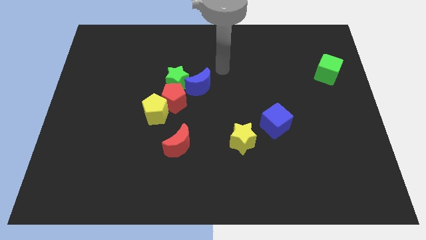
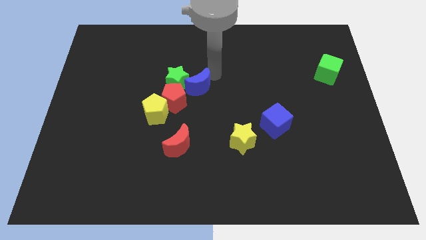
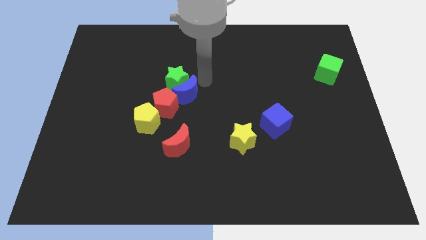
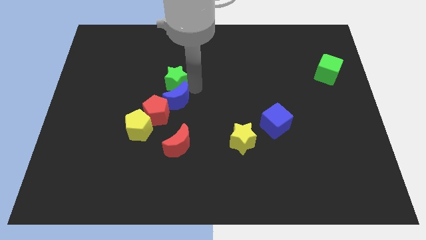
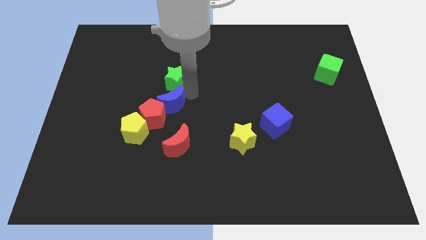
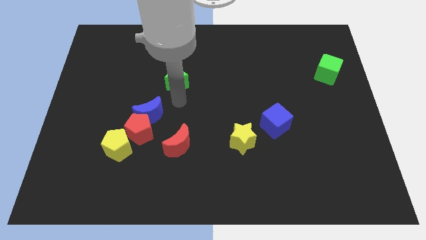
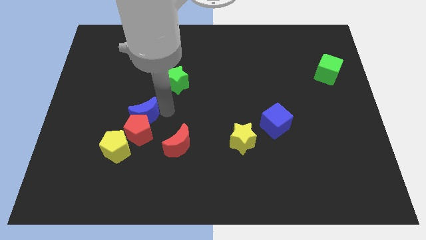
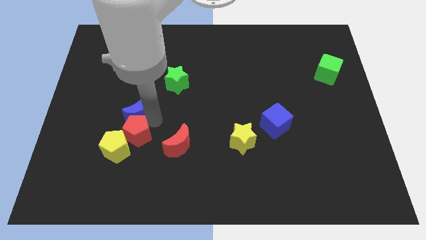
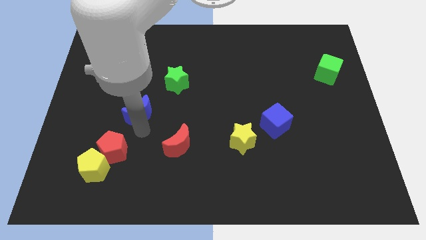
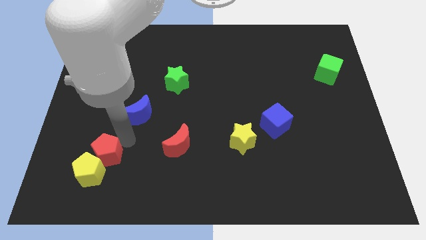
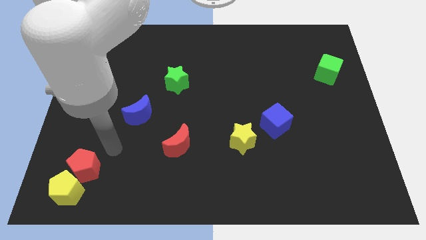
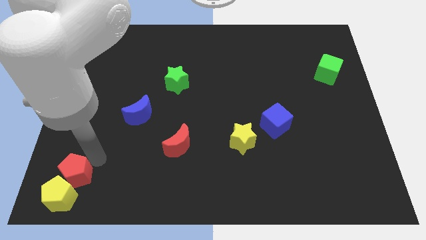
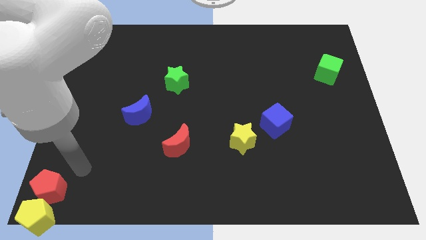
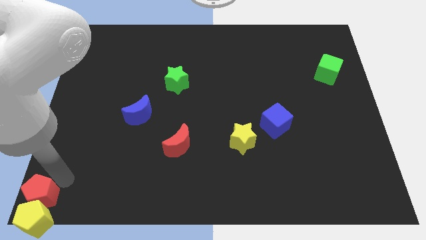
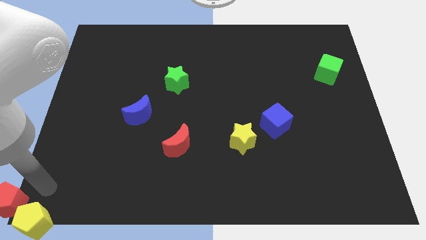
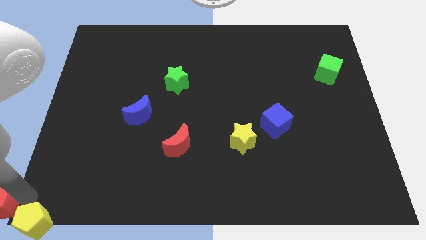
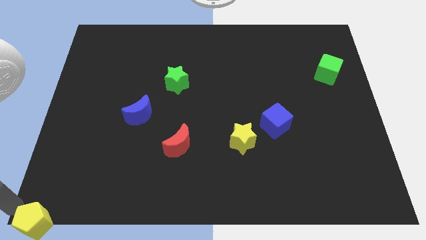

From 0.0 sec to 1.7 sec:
pull the yellow pentagon apart from the red pentagon

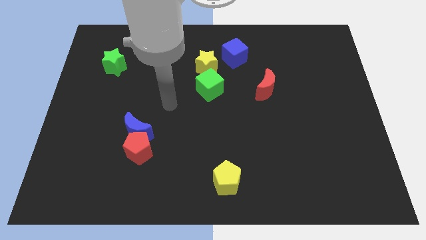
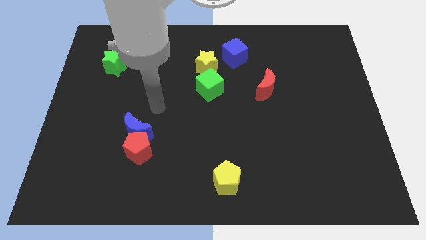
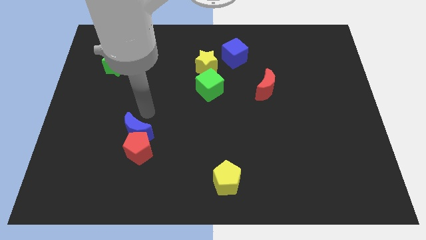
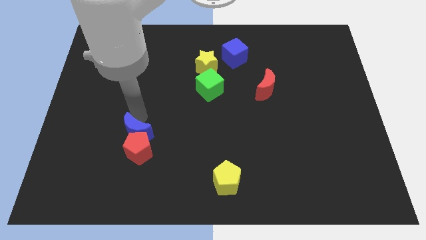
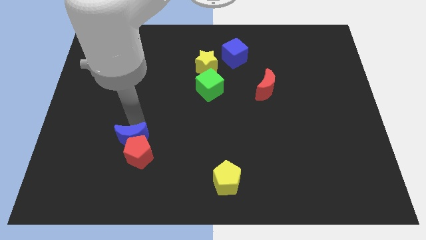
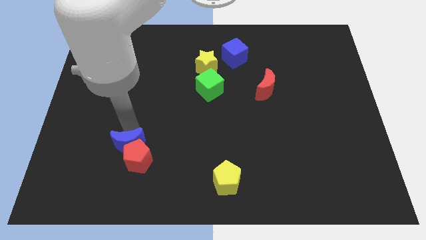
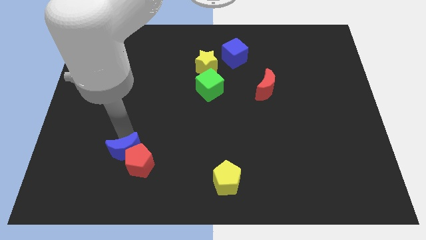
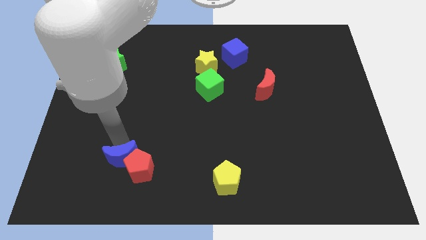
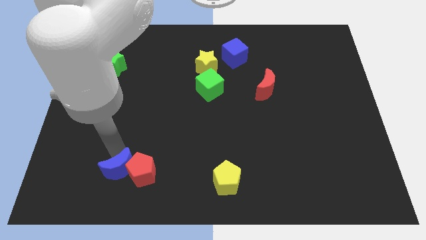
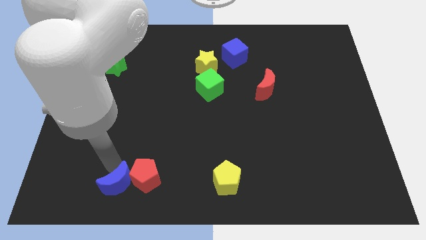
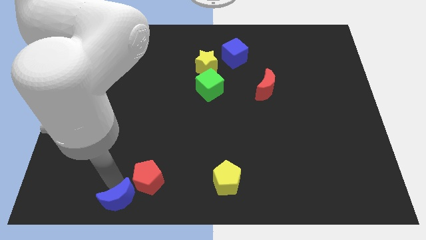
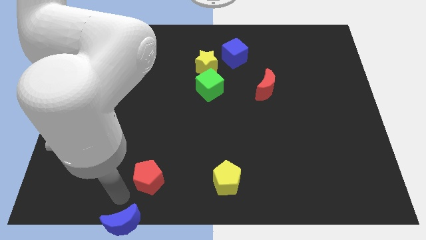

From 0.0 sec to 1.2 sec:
separate the red pentagon from the blue moon

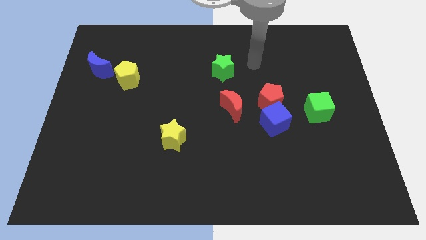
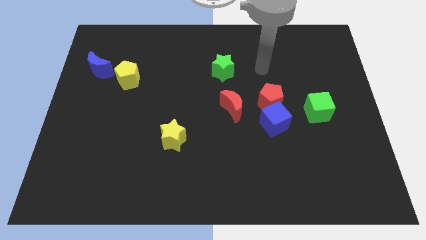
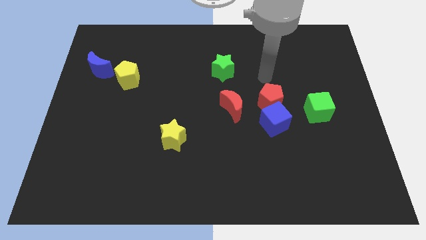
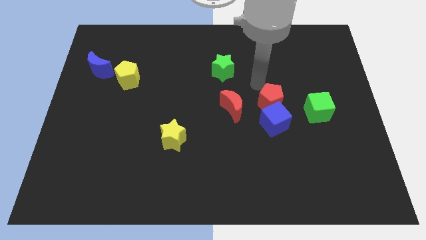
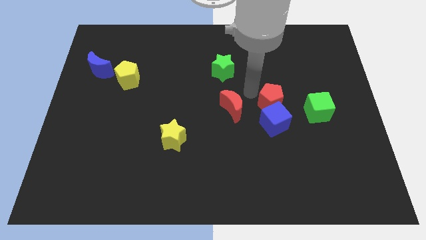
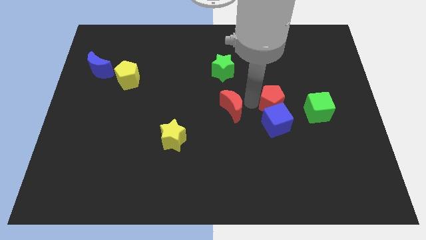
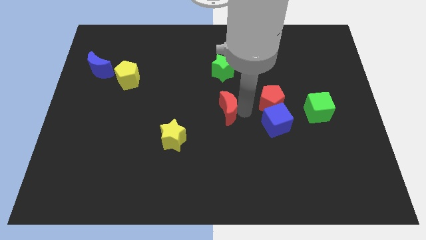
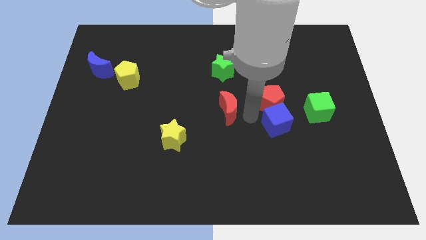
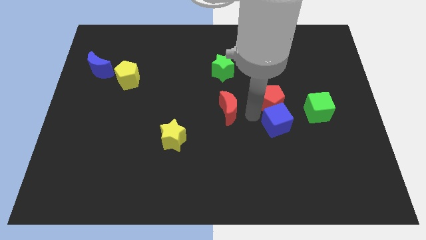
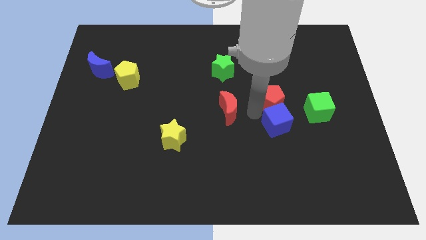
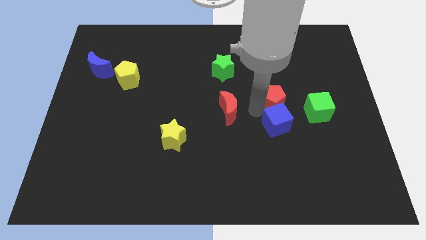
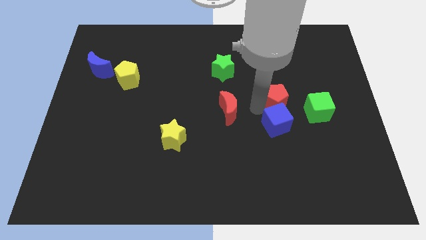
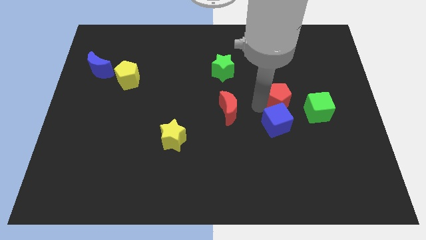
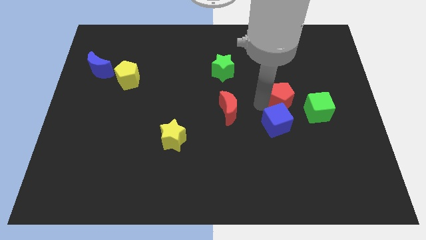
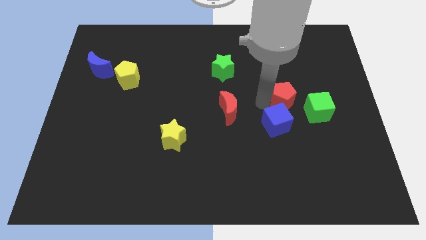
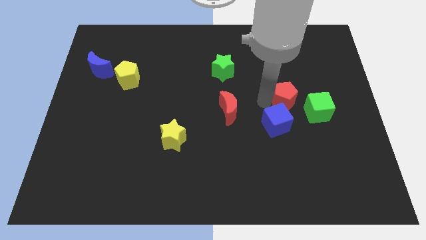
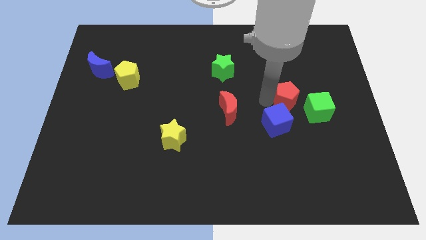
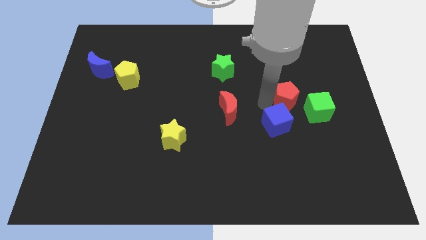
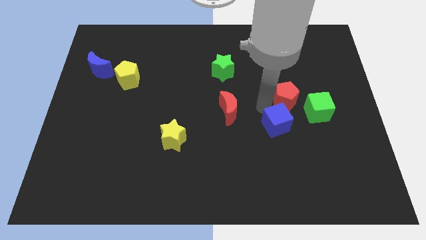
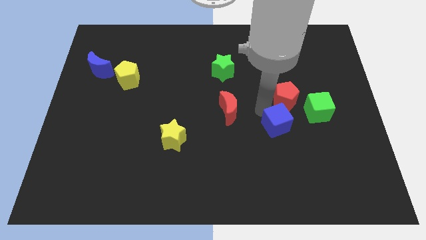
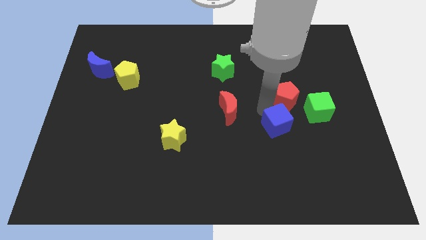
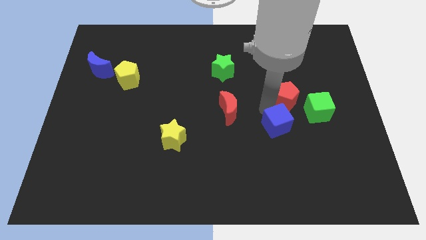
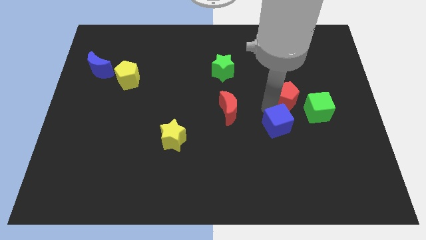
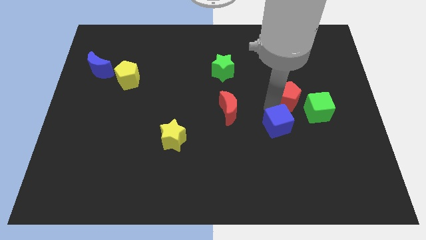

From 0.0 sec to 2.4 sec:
pull the red pentagon apart from the blue cube and red moon

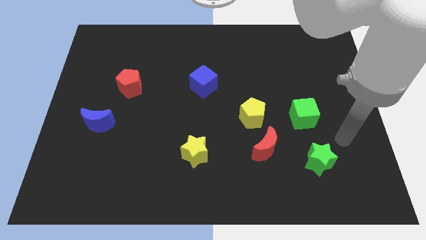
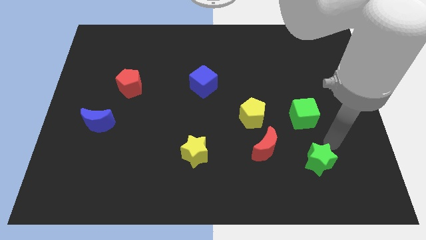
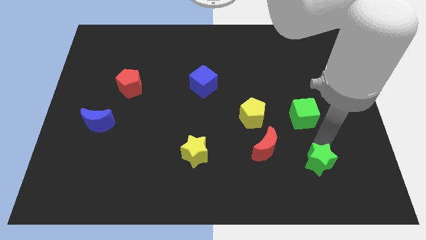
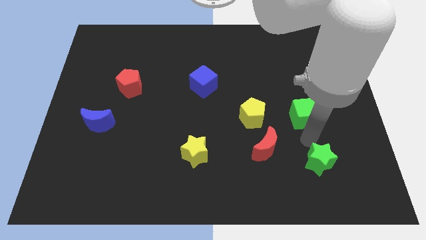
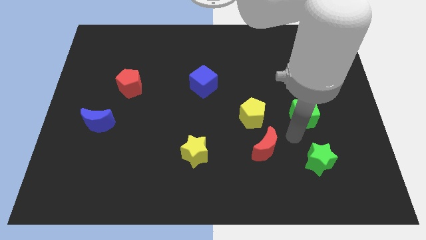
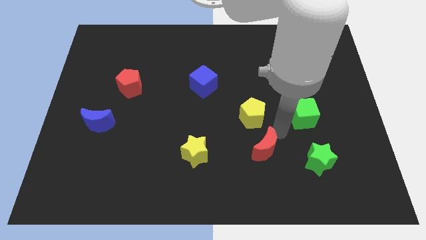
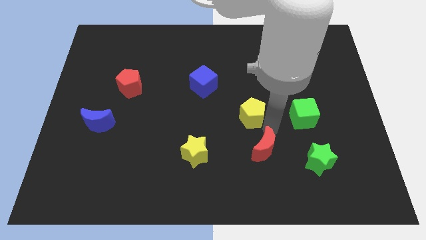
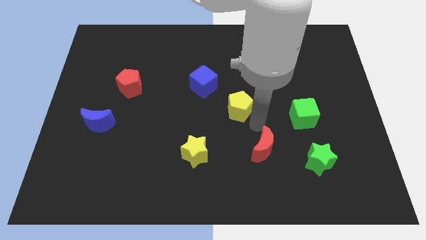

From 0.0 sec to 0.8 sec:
pull the red moon apart from the yellow pentagon

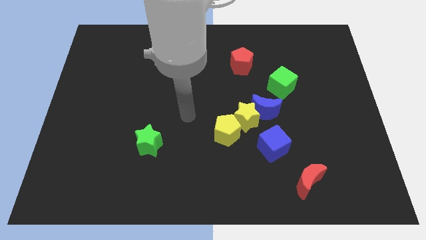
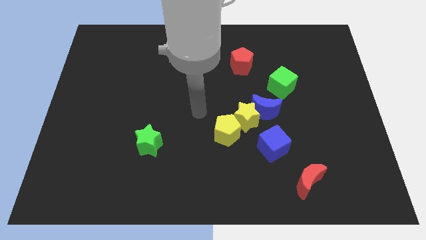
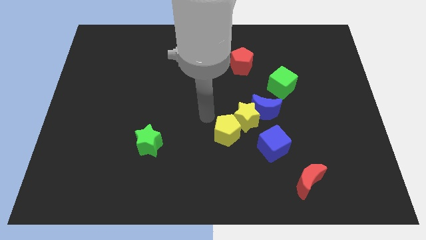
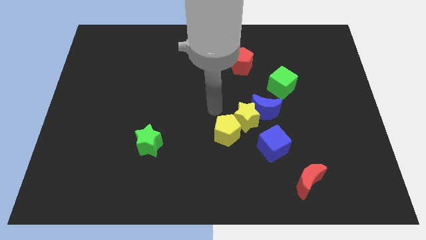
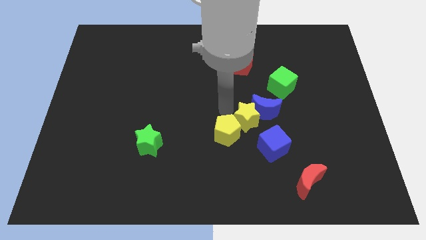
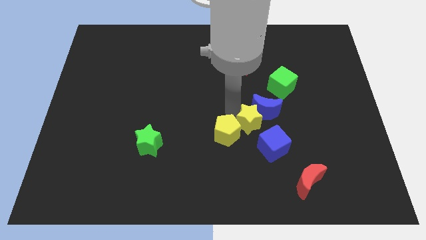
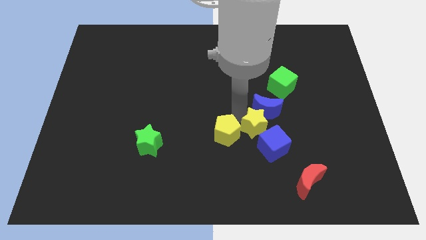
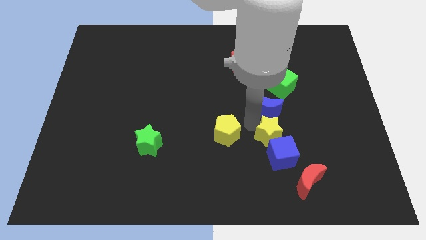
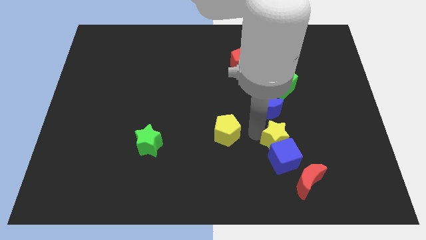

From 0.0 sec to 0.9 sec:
move the yellow pentagon away from the yellow star

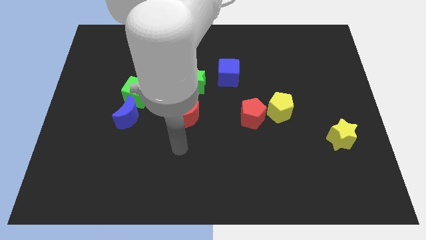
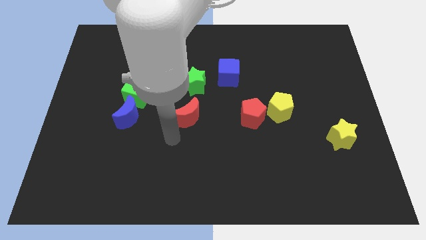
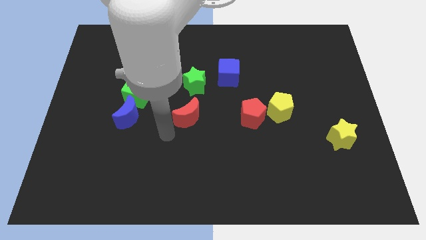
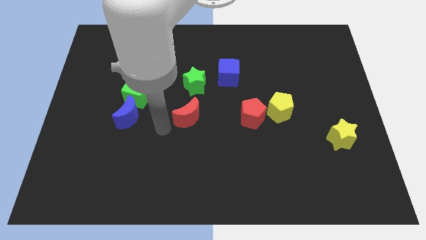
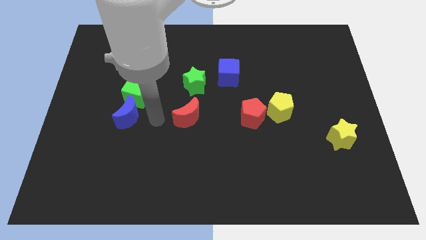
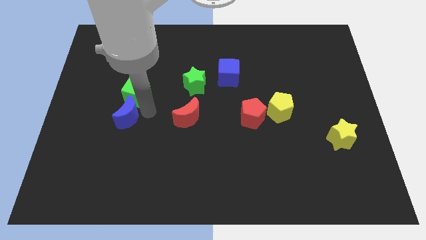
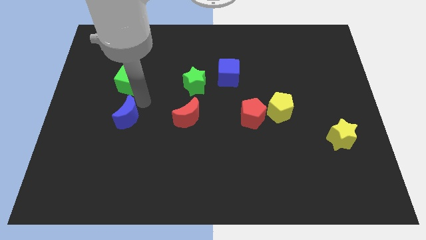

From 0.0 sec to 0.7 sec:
pull the blue moon apart from the green cube

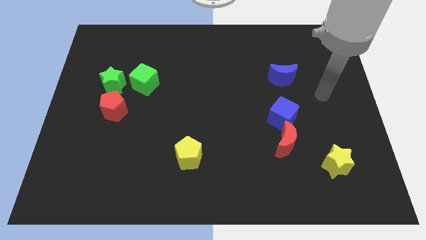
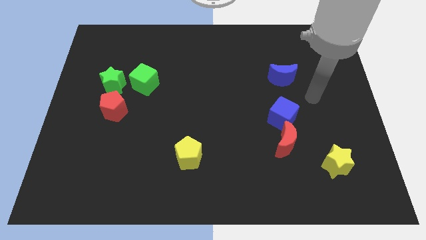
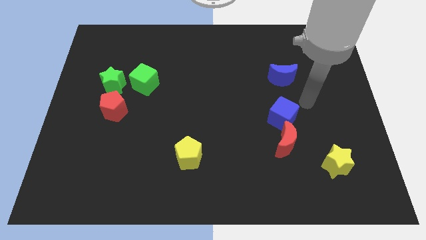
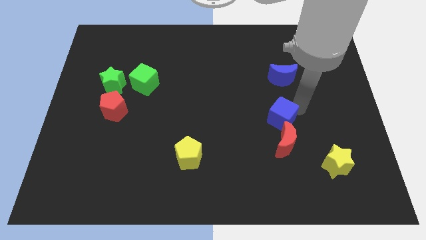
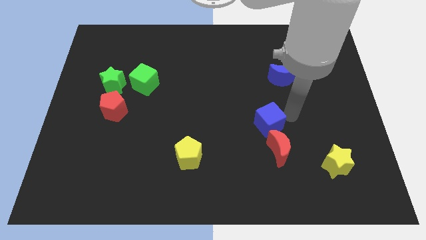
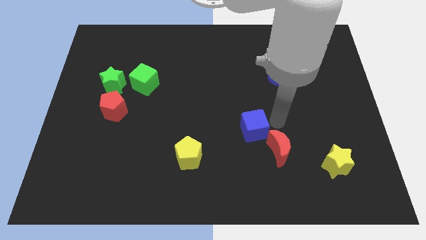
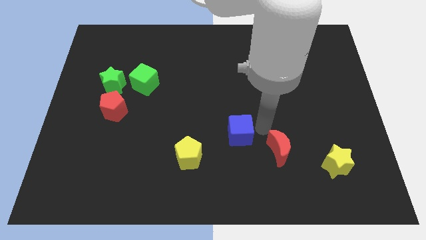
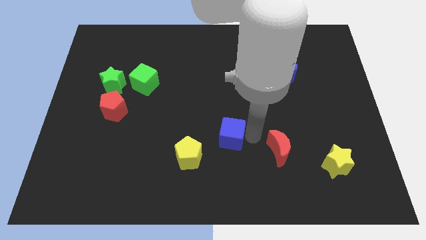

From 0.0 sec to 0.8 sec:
separate the red moon from the blue cube

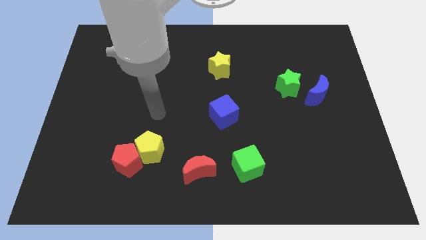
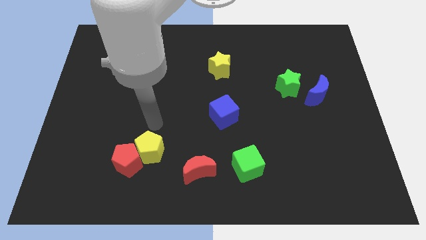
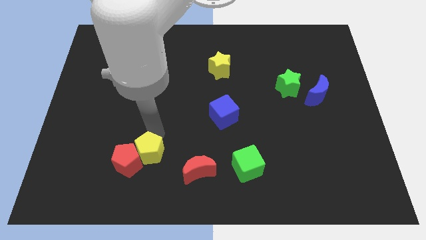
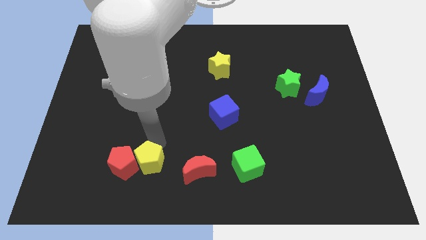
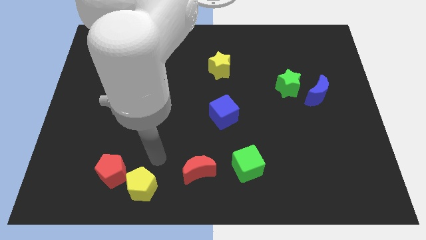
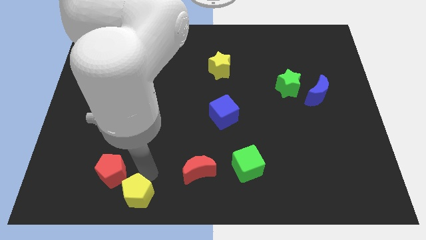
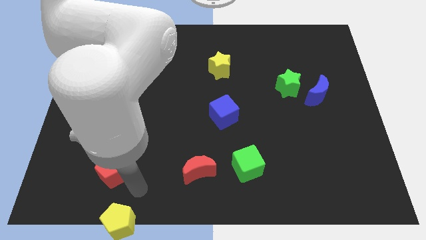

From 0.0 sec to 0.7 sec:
pull the red pentagon apart from the yellow pentagon

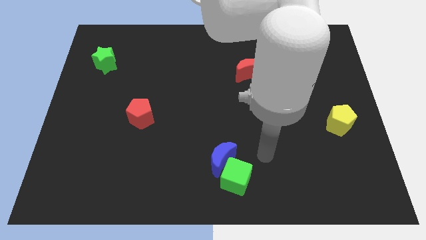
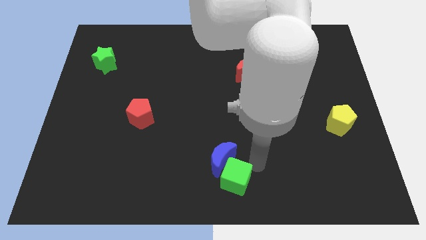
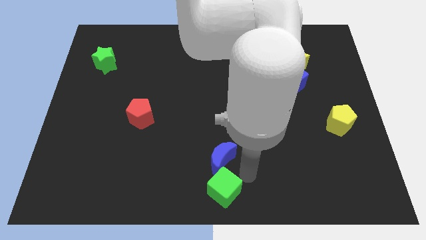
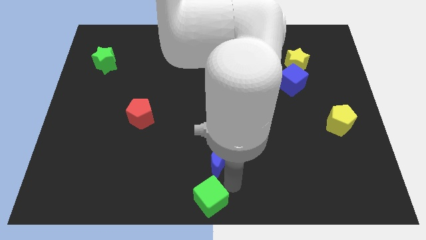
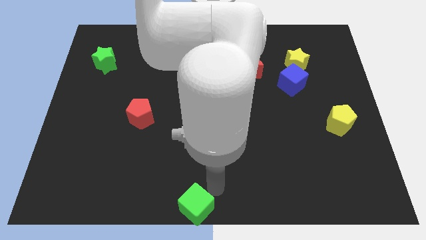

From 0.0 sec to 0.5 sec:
separate the blue moon from the green cube
